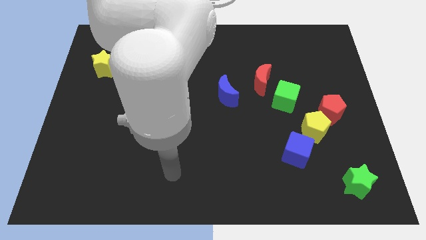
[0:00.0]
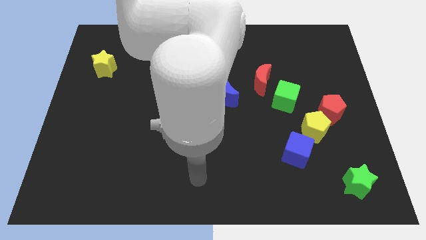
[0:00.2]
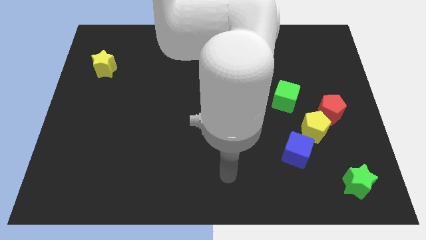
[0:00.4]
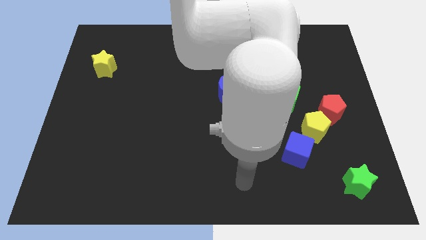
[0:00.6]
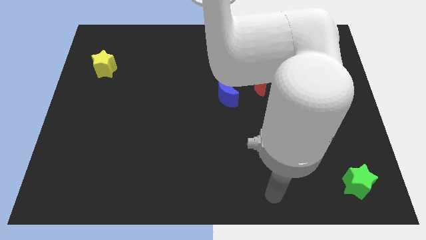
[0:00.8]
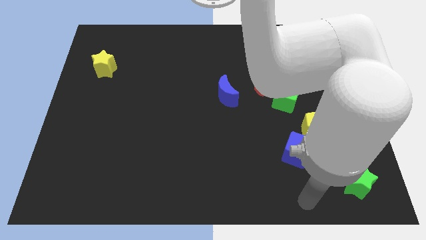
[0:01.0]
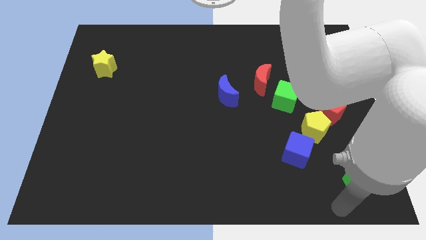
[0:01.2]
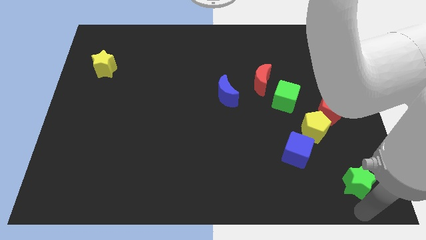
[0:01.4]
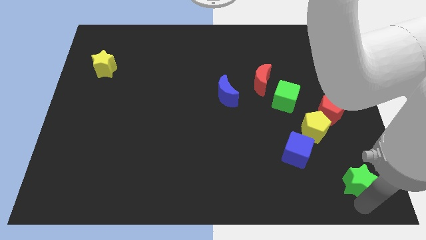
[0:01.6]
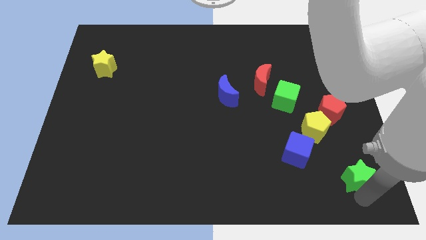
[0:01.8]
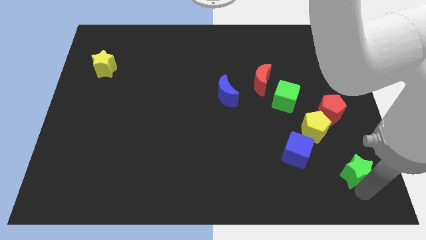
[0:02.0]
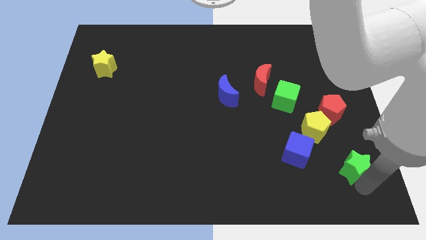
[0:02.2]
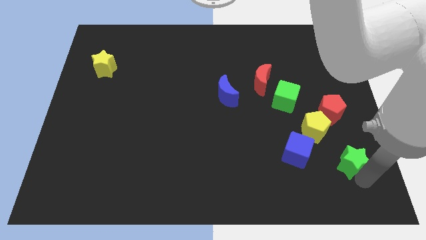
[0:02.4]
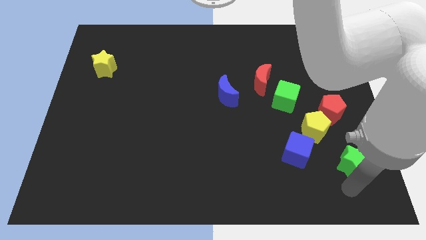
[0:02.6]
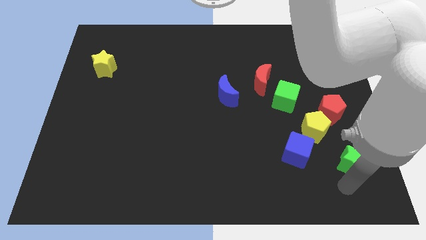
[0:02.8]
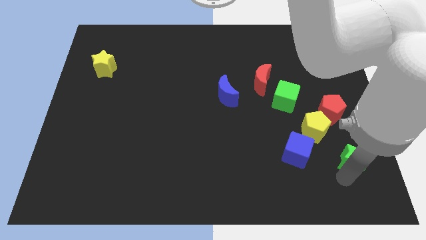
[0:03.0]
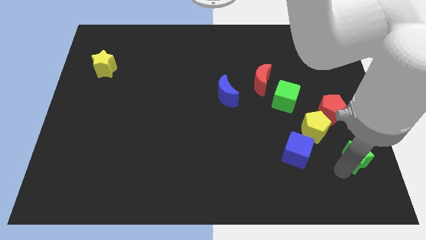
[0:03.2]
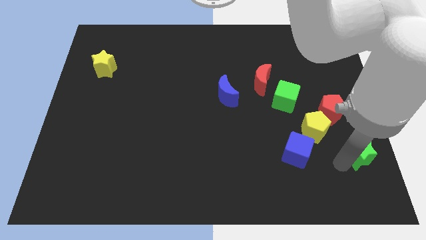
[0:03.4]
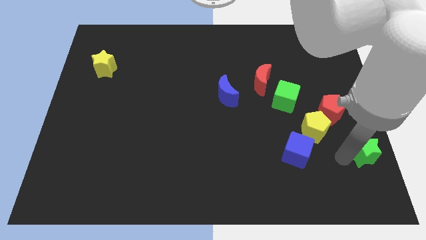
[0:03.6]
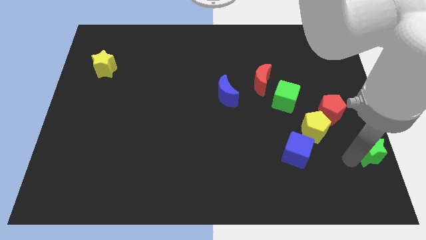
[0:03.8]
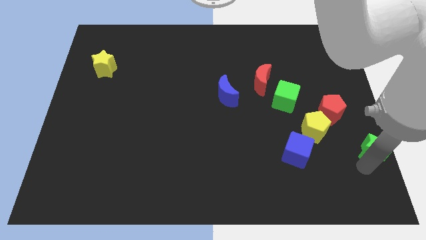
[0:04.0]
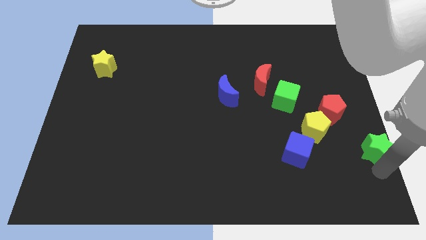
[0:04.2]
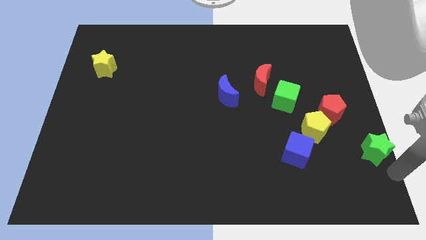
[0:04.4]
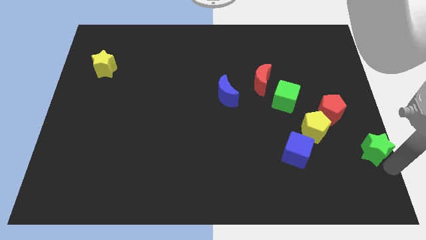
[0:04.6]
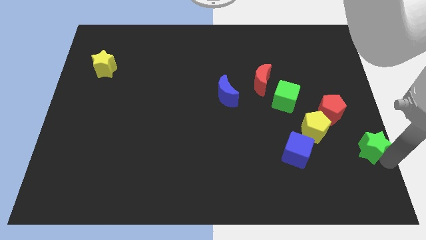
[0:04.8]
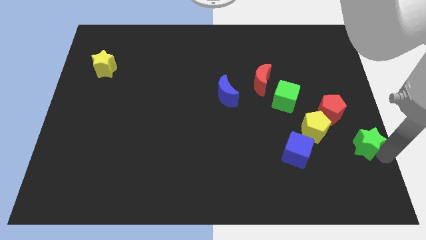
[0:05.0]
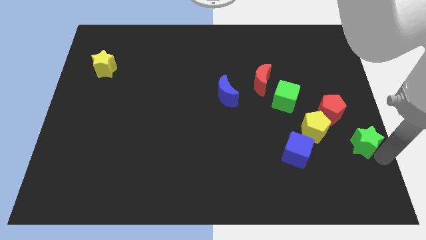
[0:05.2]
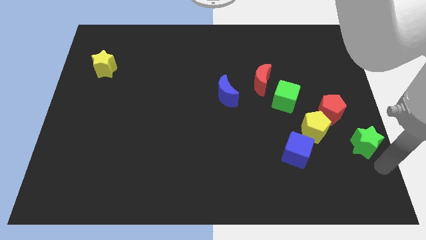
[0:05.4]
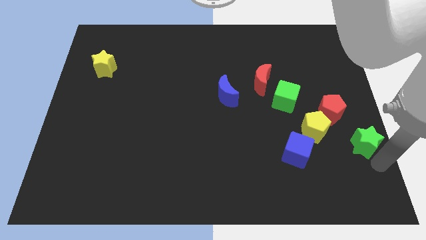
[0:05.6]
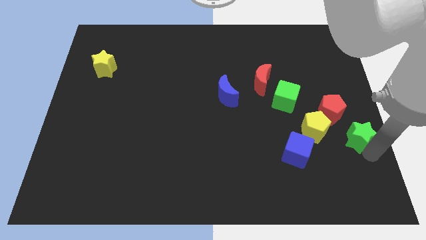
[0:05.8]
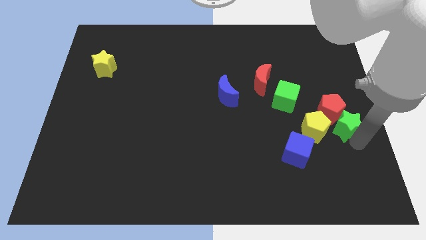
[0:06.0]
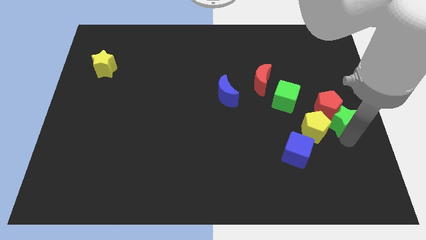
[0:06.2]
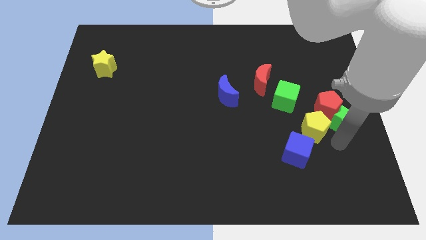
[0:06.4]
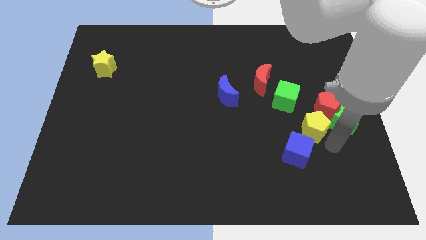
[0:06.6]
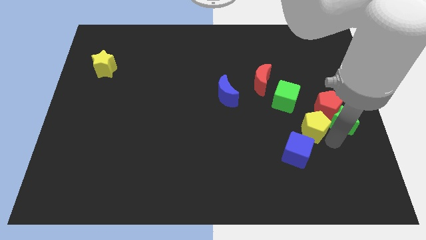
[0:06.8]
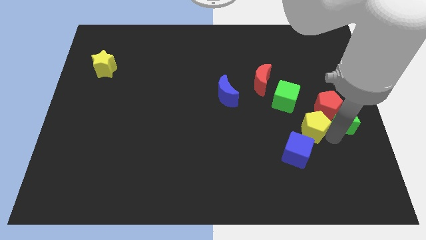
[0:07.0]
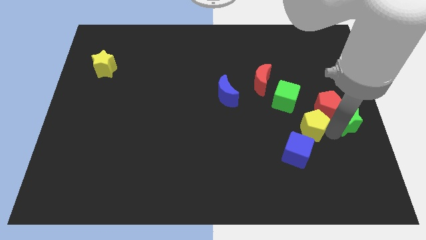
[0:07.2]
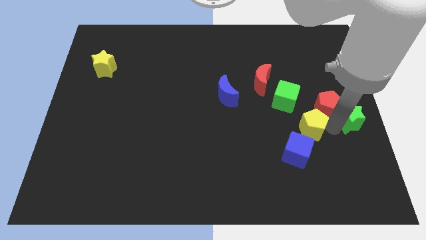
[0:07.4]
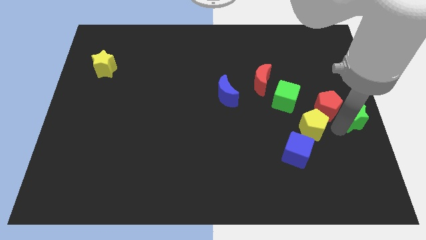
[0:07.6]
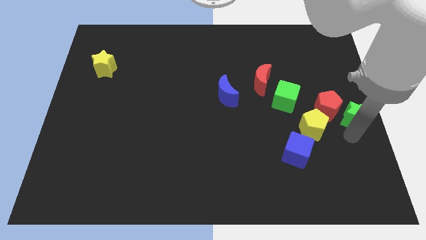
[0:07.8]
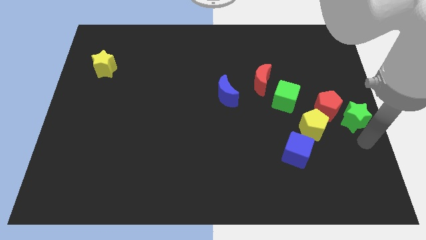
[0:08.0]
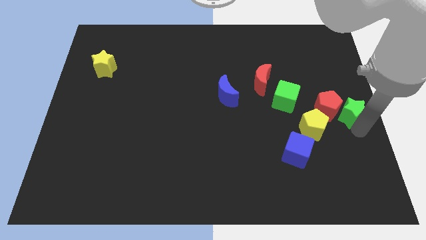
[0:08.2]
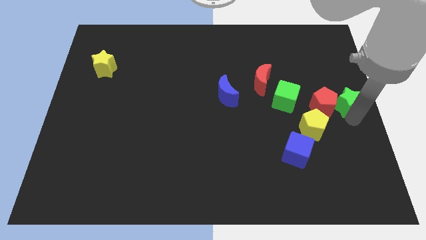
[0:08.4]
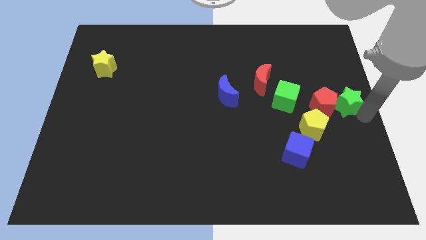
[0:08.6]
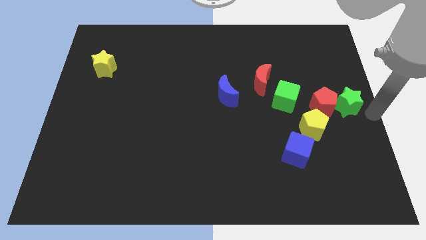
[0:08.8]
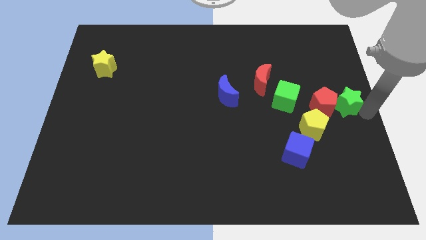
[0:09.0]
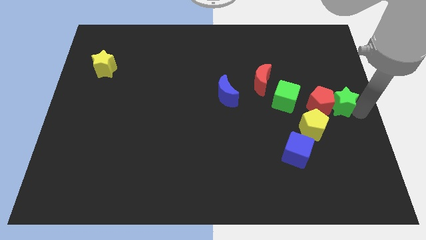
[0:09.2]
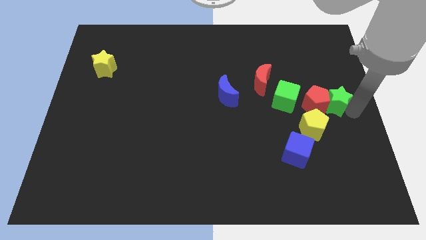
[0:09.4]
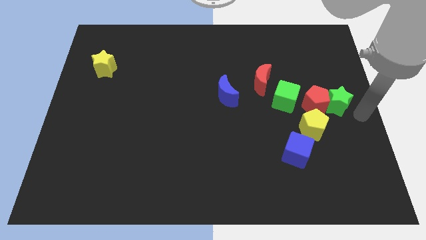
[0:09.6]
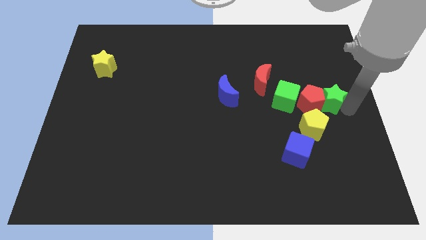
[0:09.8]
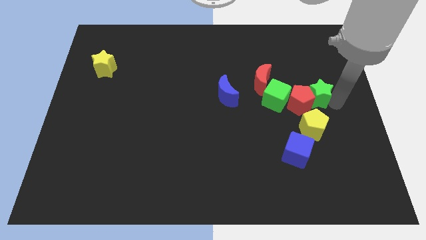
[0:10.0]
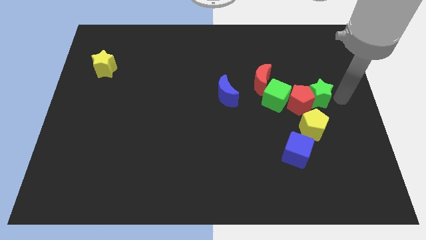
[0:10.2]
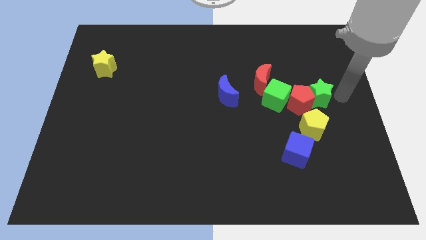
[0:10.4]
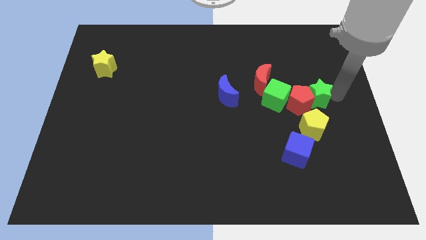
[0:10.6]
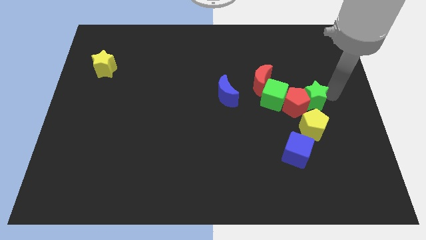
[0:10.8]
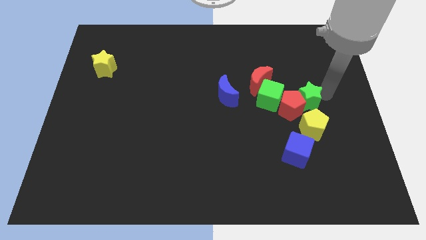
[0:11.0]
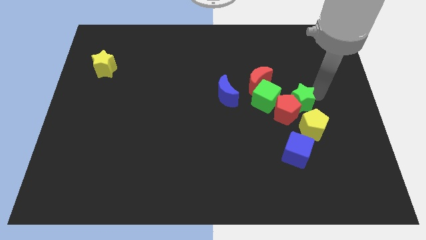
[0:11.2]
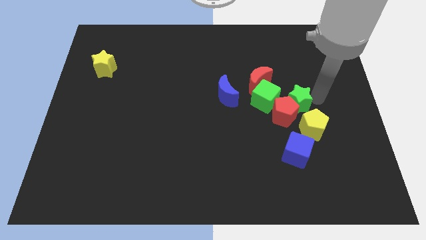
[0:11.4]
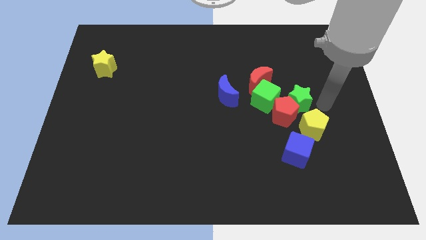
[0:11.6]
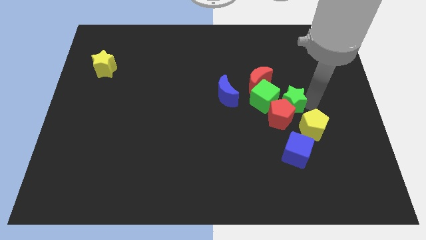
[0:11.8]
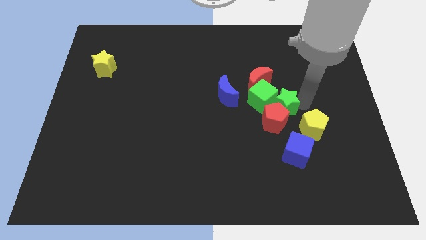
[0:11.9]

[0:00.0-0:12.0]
put the green star towards the green cube

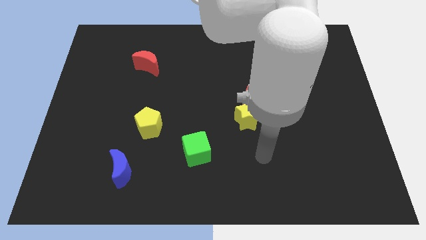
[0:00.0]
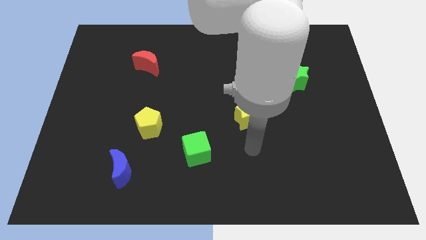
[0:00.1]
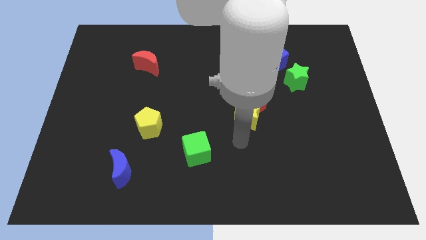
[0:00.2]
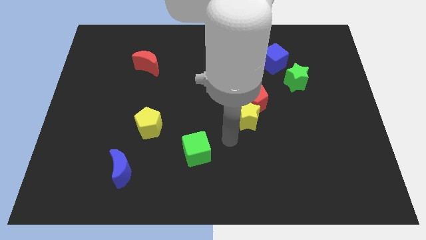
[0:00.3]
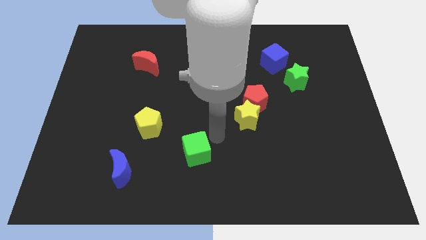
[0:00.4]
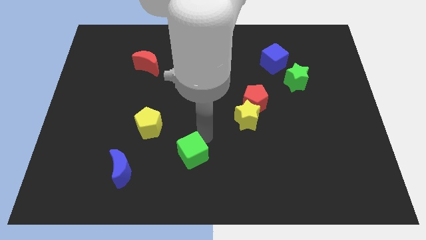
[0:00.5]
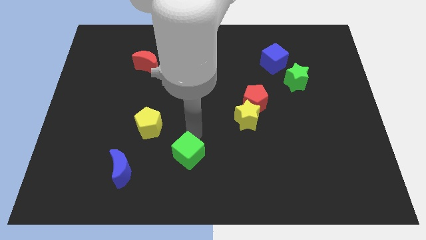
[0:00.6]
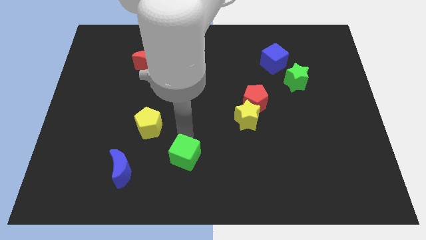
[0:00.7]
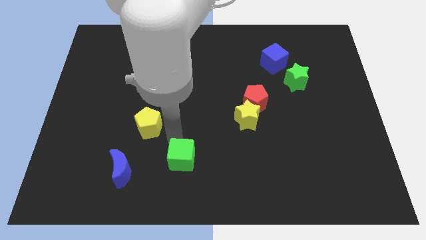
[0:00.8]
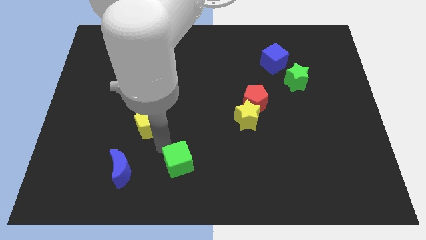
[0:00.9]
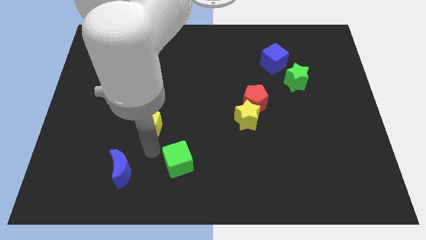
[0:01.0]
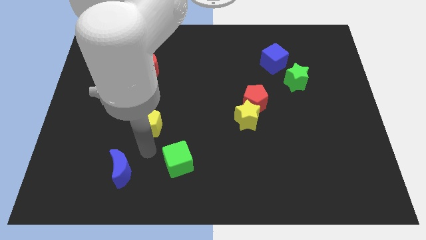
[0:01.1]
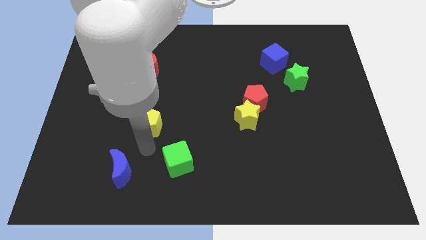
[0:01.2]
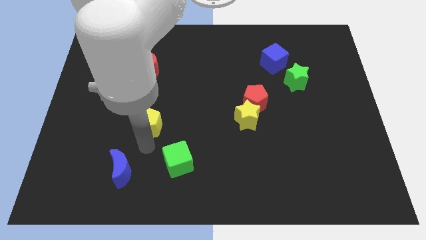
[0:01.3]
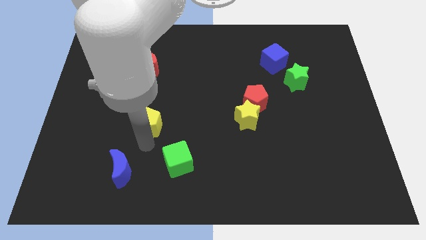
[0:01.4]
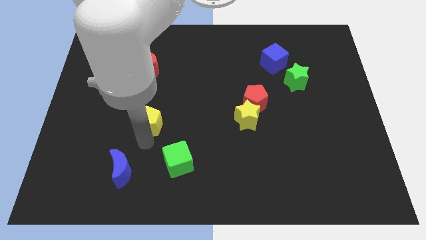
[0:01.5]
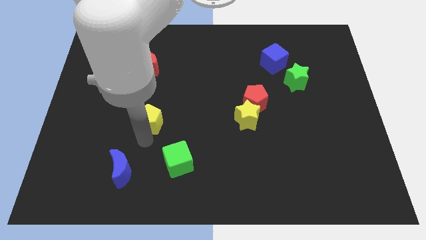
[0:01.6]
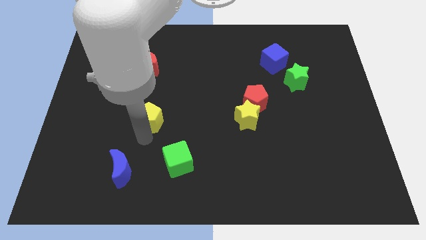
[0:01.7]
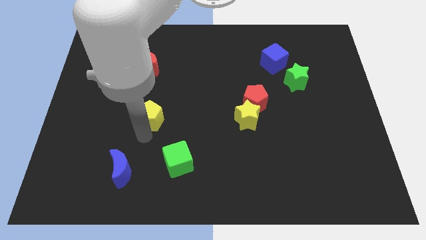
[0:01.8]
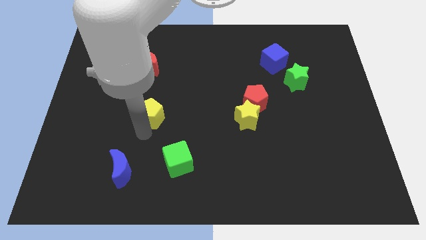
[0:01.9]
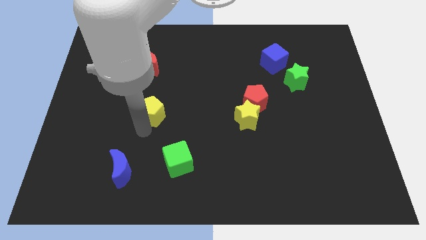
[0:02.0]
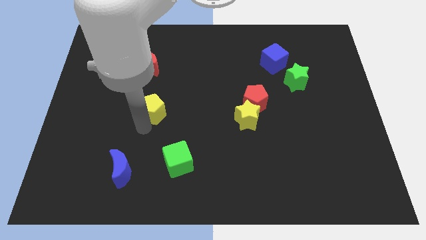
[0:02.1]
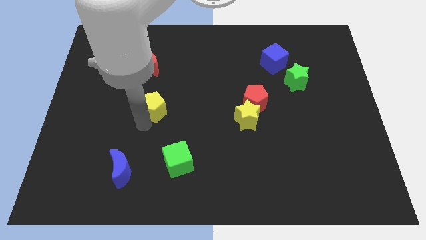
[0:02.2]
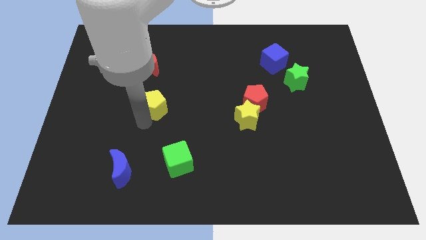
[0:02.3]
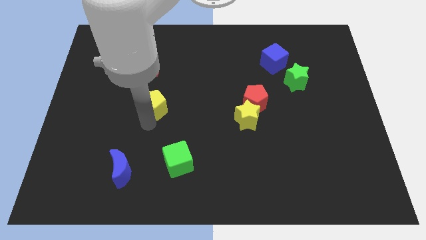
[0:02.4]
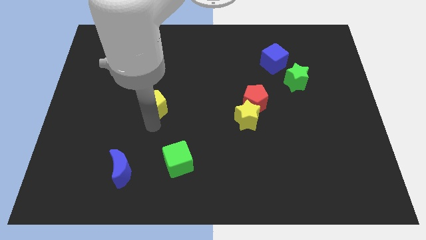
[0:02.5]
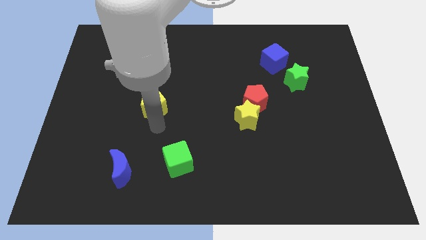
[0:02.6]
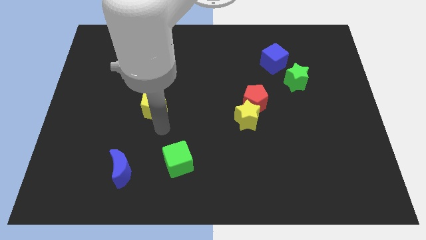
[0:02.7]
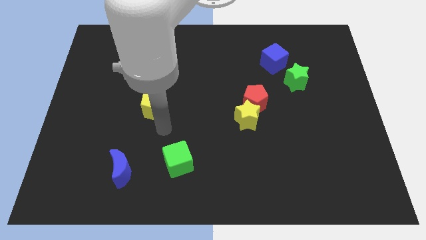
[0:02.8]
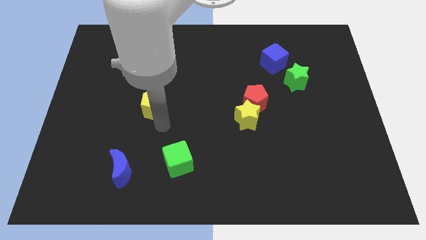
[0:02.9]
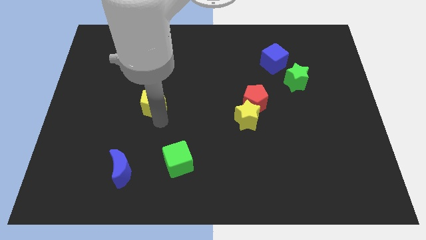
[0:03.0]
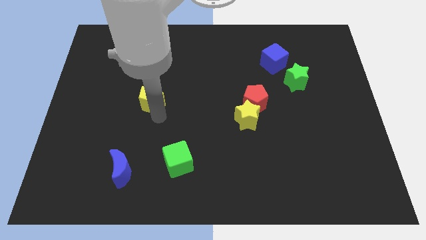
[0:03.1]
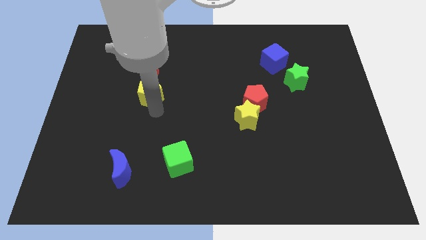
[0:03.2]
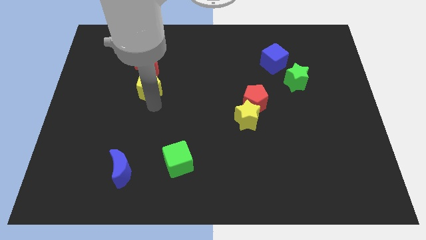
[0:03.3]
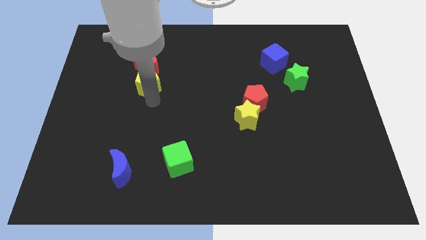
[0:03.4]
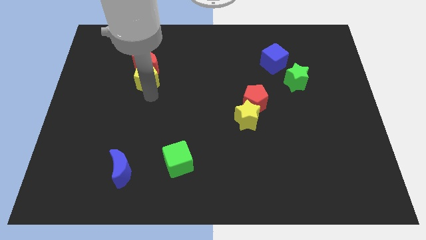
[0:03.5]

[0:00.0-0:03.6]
put the yellow pentagon close to the red moon
